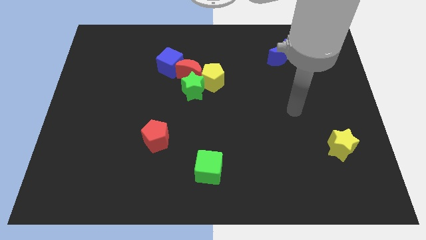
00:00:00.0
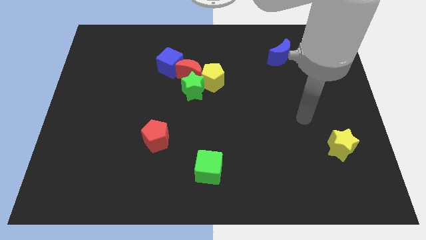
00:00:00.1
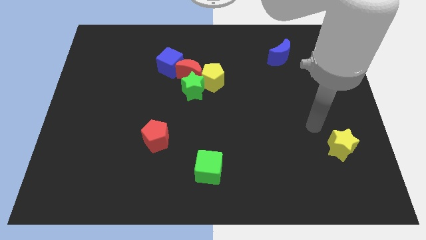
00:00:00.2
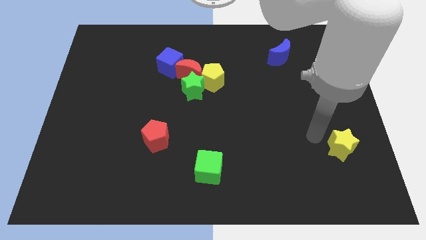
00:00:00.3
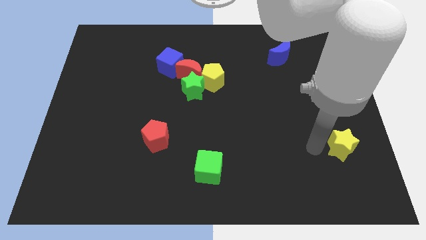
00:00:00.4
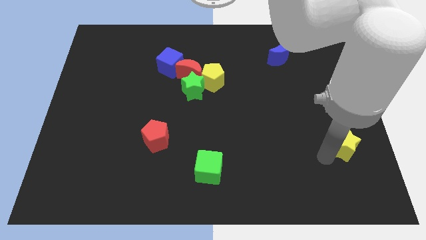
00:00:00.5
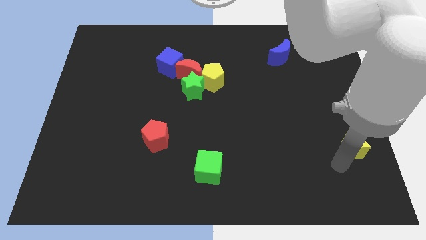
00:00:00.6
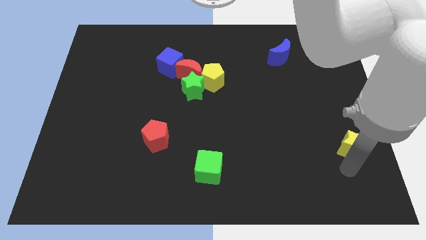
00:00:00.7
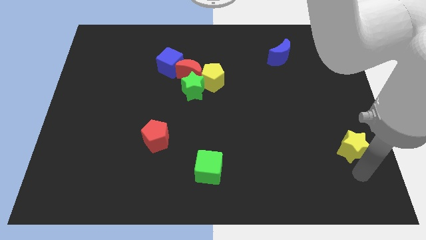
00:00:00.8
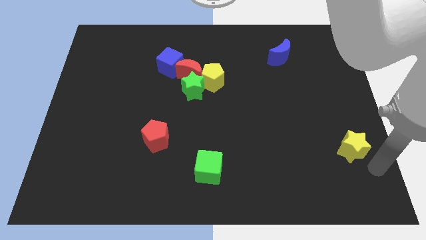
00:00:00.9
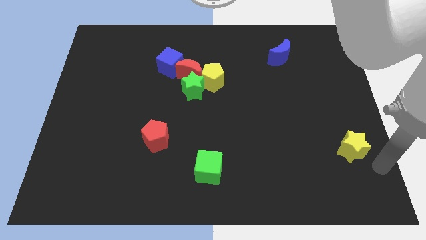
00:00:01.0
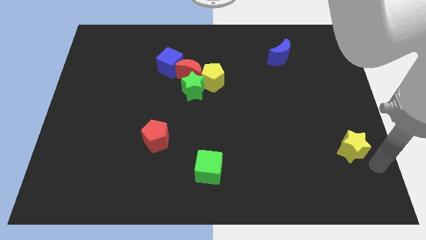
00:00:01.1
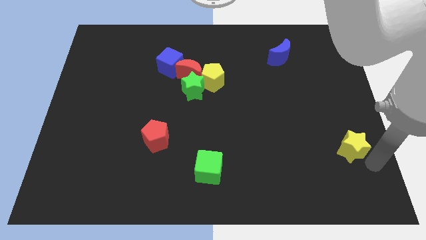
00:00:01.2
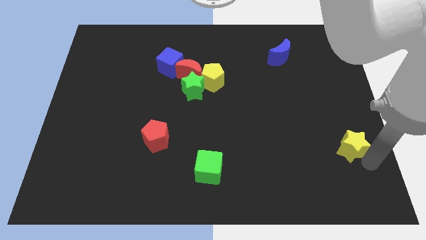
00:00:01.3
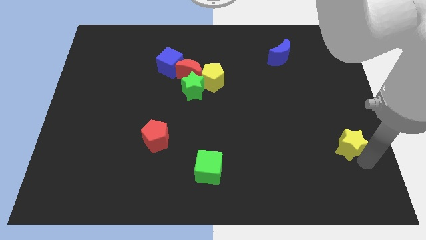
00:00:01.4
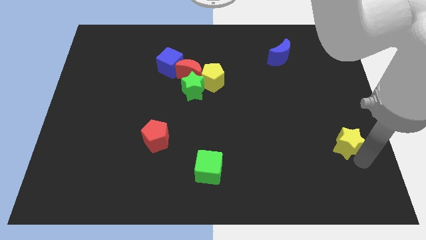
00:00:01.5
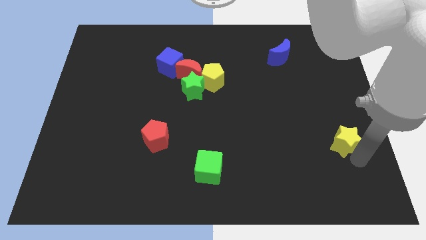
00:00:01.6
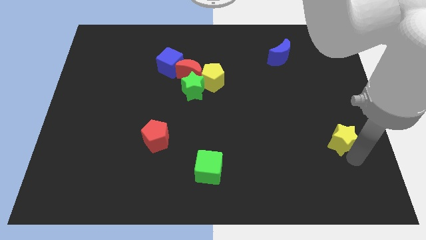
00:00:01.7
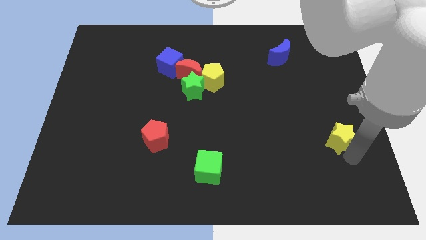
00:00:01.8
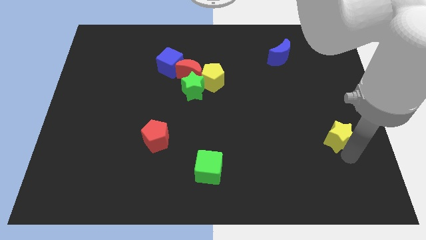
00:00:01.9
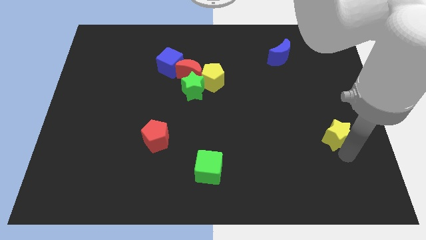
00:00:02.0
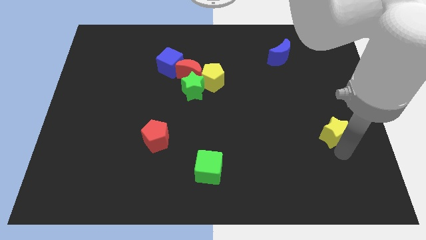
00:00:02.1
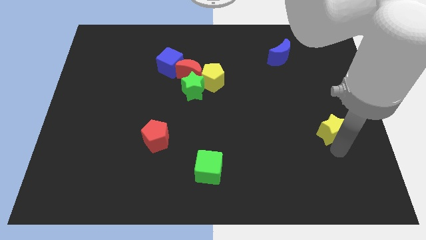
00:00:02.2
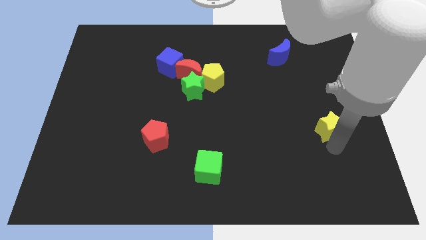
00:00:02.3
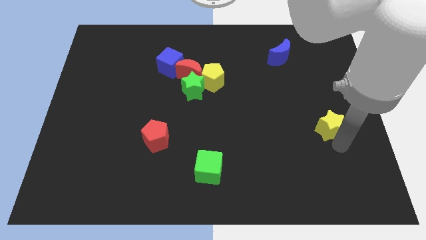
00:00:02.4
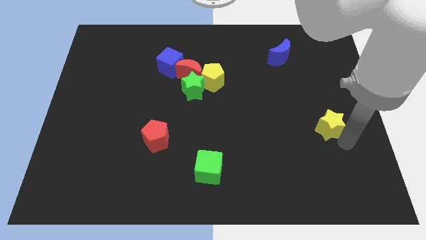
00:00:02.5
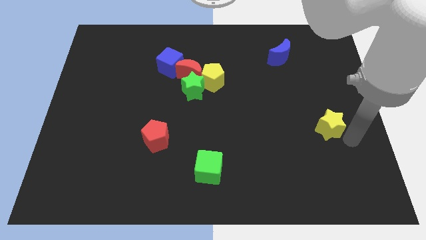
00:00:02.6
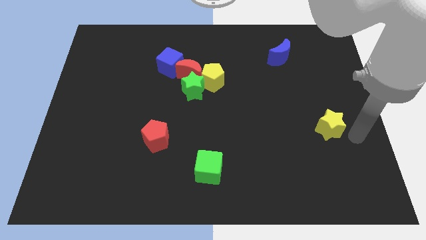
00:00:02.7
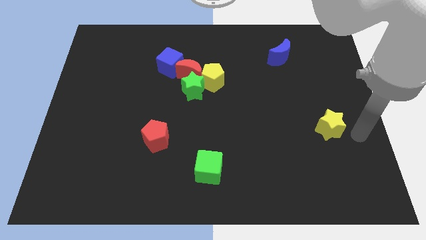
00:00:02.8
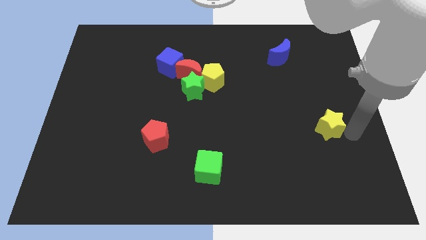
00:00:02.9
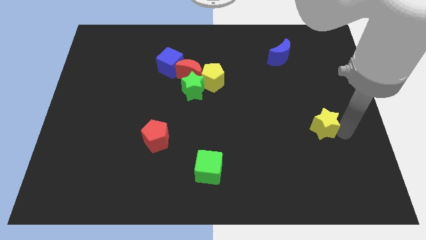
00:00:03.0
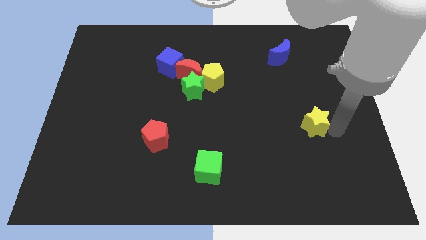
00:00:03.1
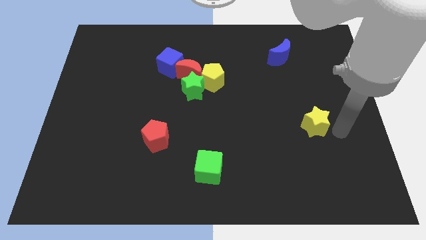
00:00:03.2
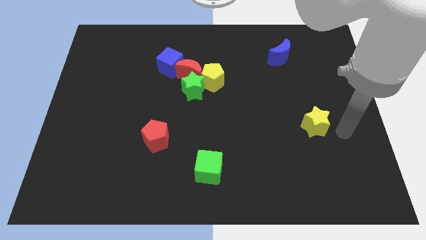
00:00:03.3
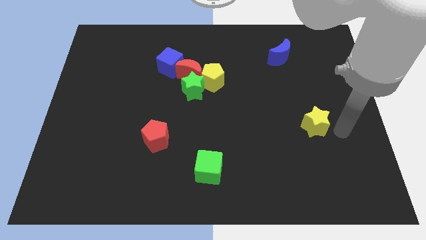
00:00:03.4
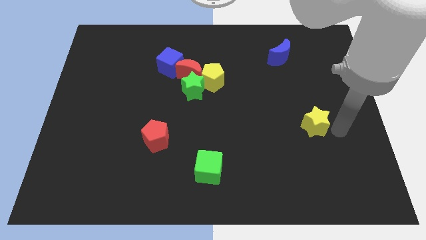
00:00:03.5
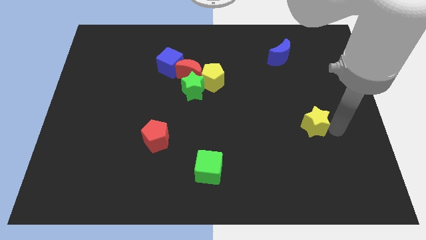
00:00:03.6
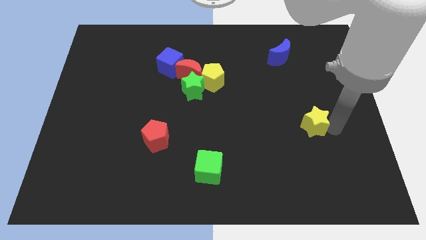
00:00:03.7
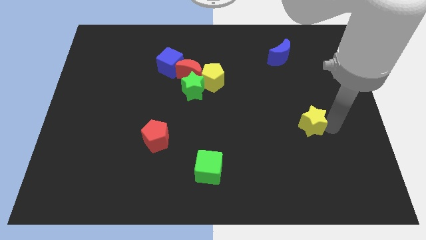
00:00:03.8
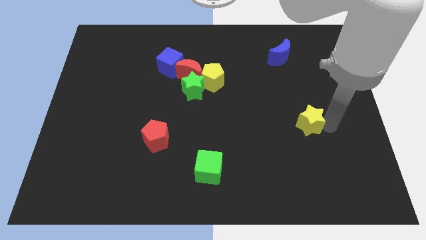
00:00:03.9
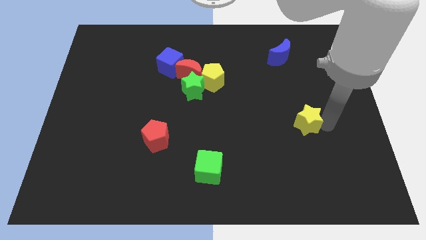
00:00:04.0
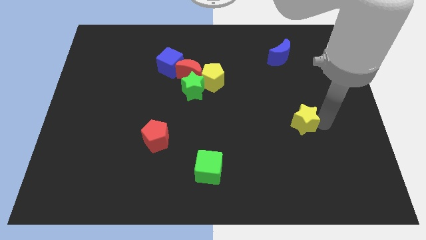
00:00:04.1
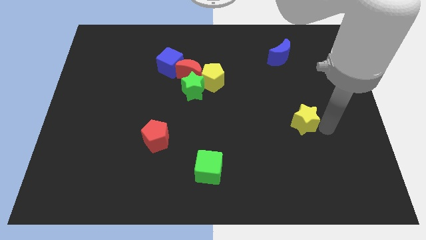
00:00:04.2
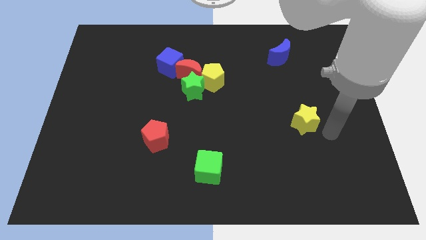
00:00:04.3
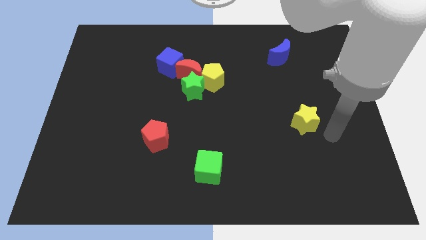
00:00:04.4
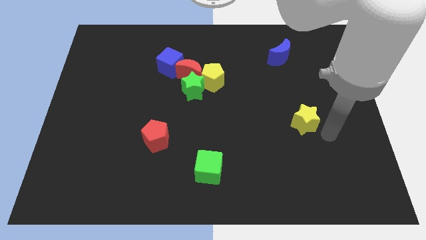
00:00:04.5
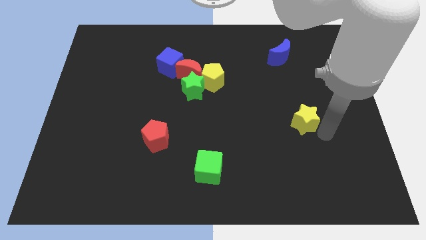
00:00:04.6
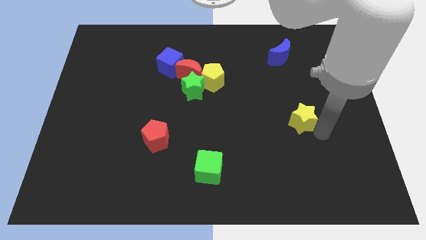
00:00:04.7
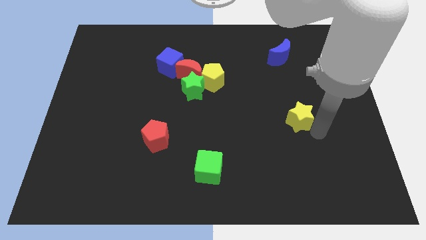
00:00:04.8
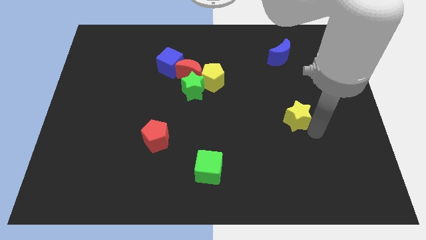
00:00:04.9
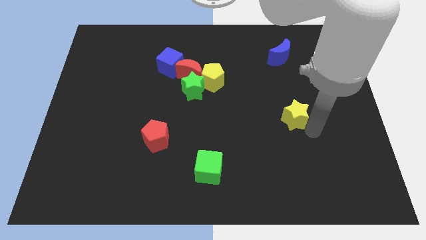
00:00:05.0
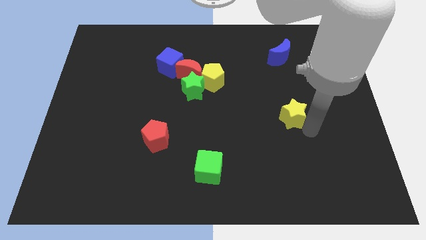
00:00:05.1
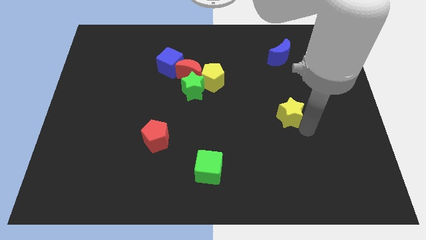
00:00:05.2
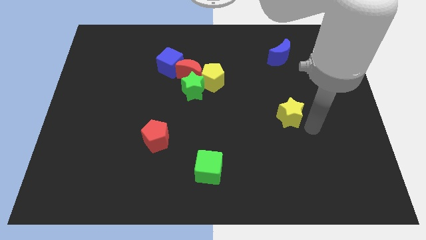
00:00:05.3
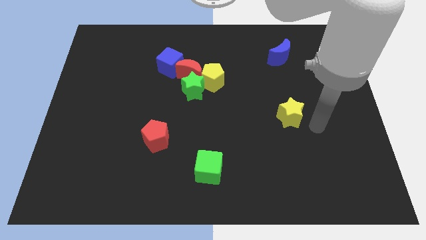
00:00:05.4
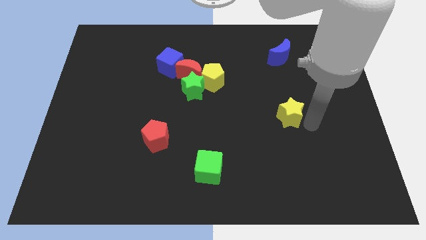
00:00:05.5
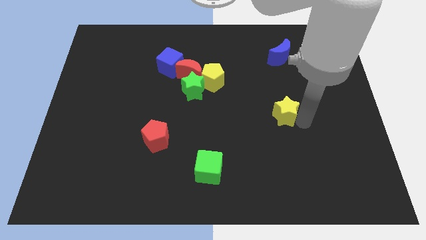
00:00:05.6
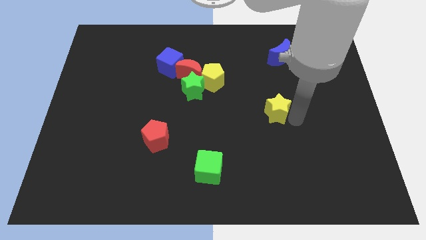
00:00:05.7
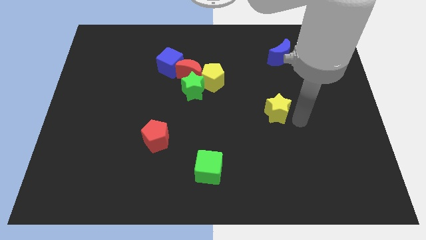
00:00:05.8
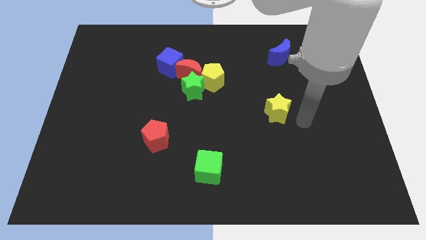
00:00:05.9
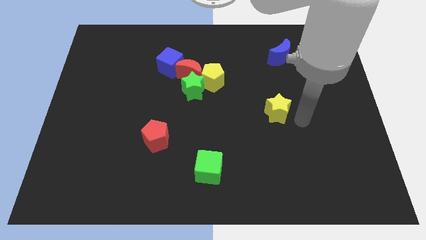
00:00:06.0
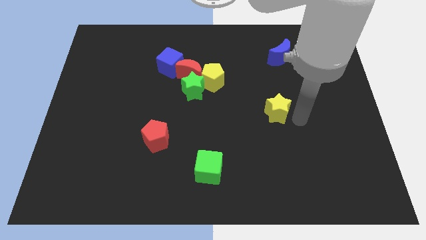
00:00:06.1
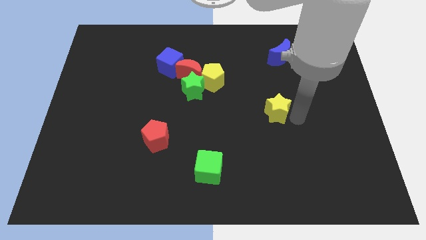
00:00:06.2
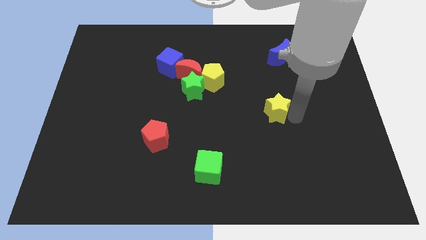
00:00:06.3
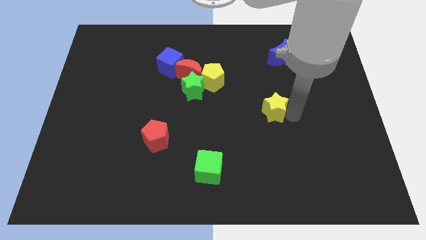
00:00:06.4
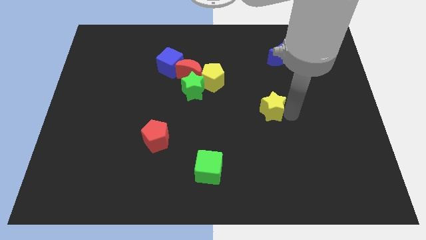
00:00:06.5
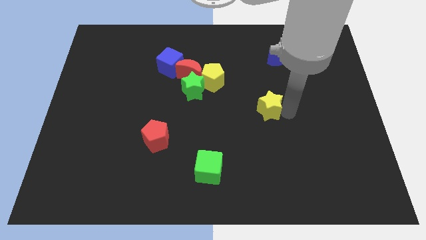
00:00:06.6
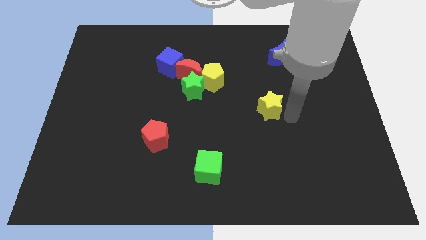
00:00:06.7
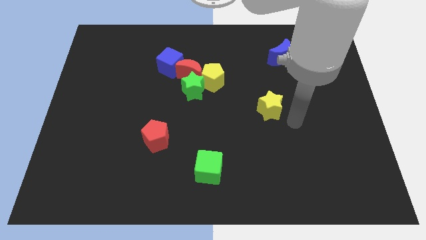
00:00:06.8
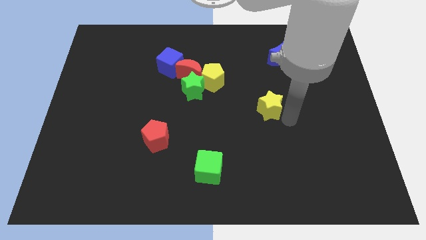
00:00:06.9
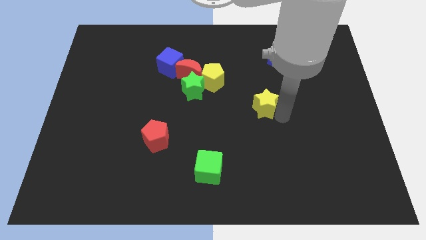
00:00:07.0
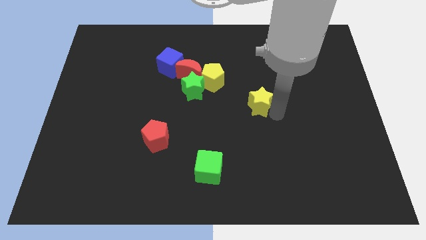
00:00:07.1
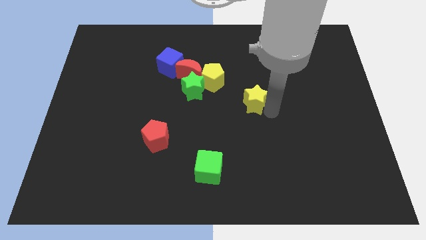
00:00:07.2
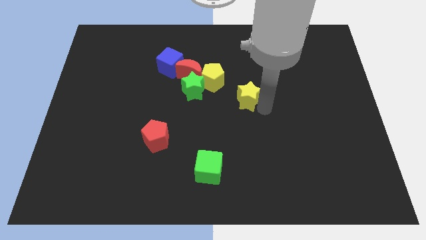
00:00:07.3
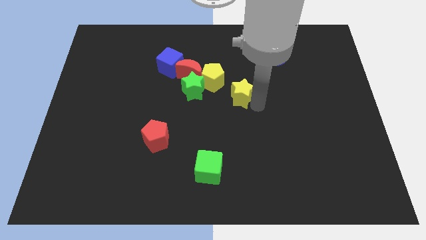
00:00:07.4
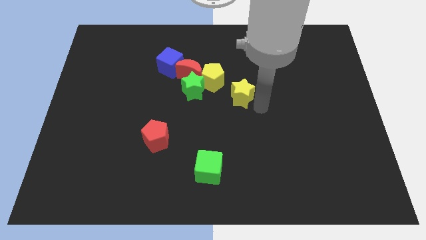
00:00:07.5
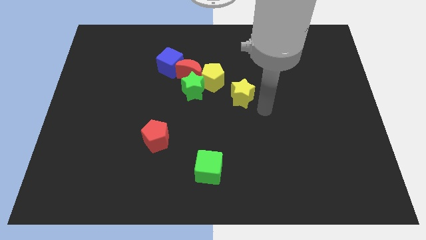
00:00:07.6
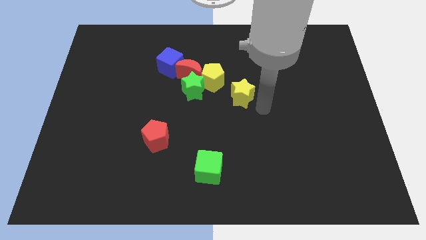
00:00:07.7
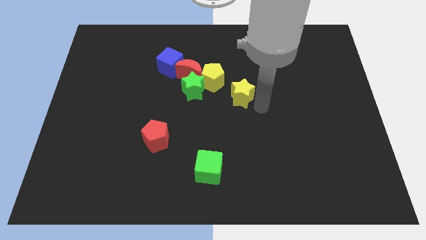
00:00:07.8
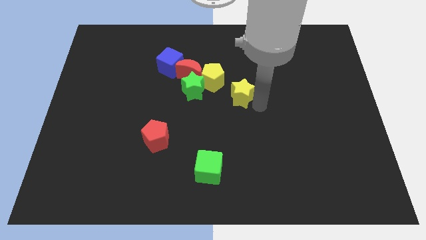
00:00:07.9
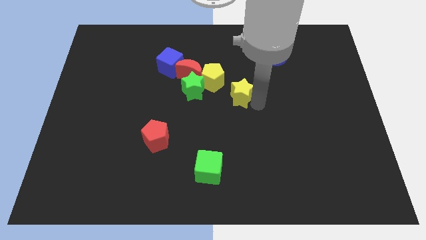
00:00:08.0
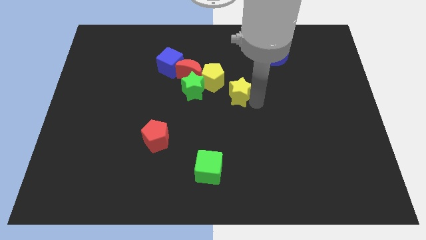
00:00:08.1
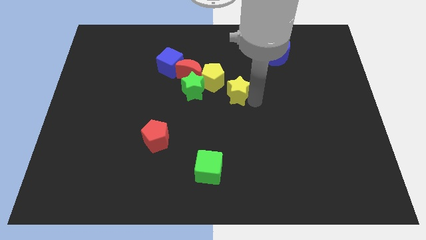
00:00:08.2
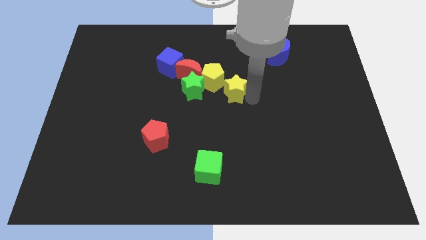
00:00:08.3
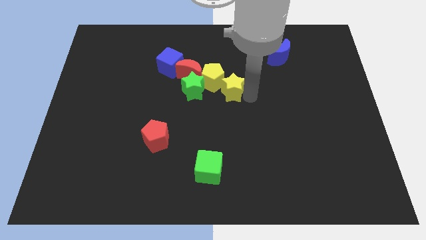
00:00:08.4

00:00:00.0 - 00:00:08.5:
put the yellow star next to the yellow pentagon
